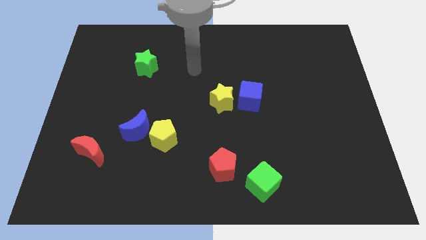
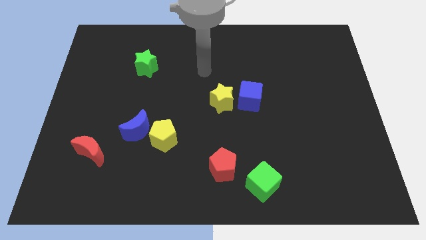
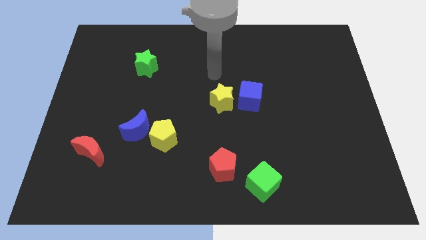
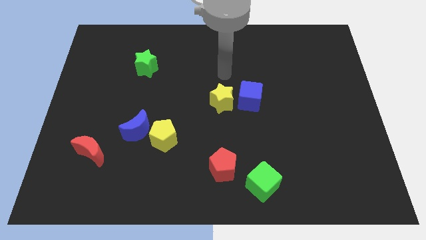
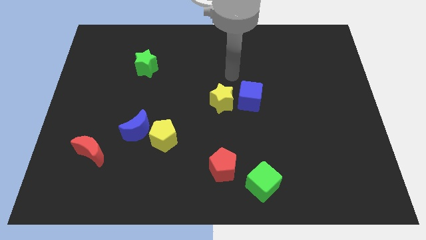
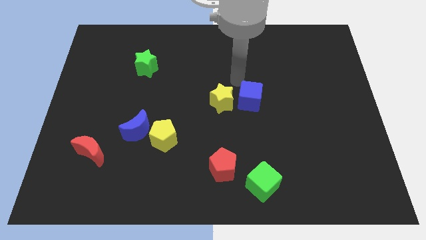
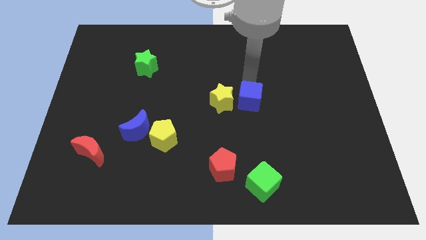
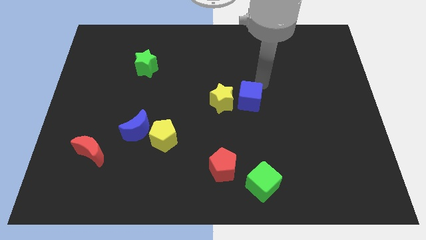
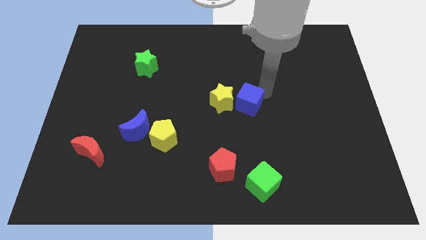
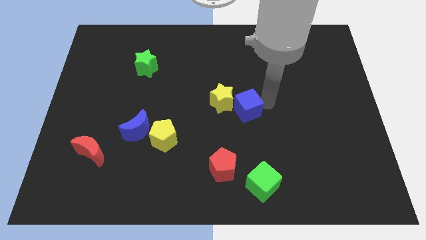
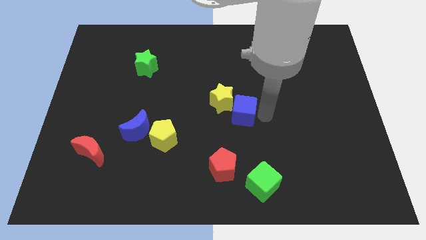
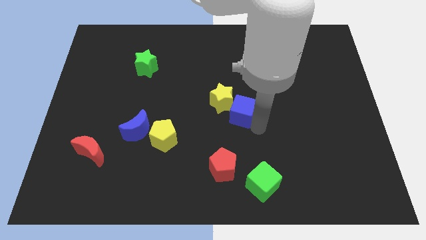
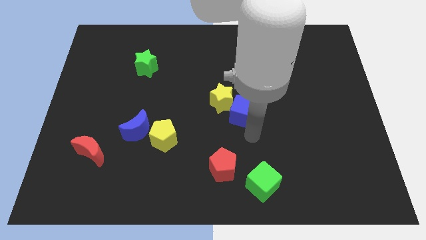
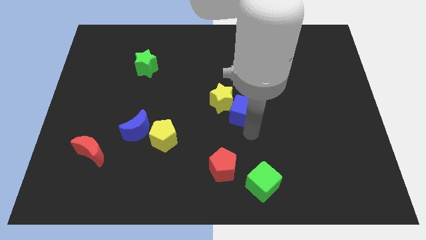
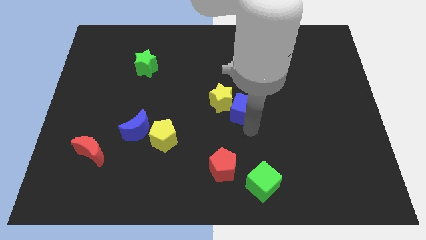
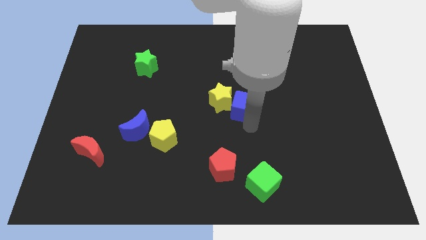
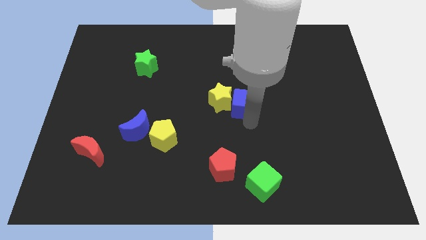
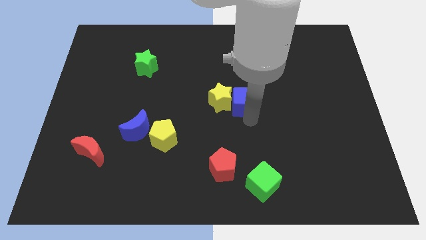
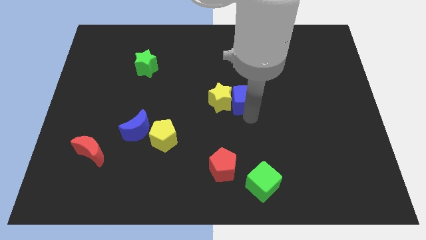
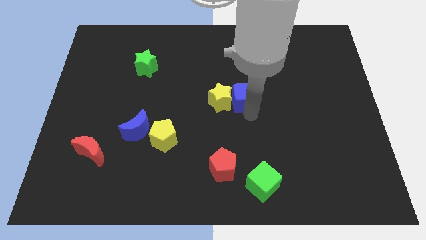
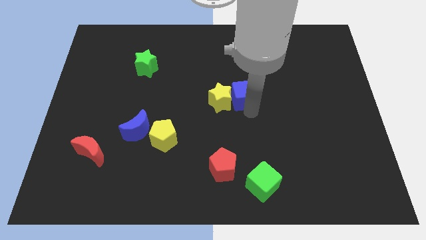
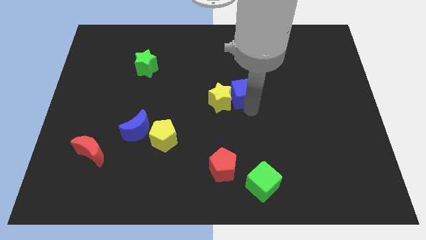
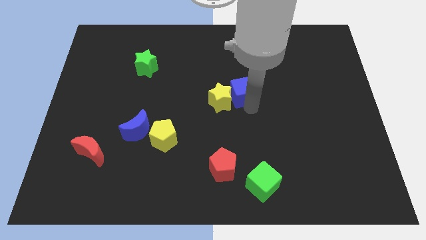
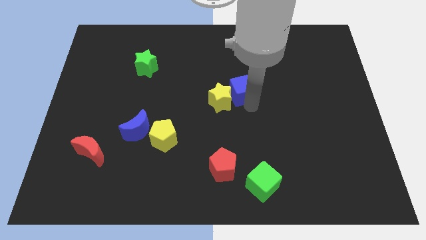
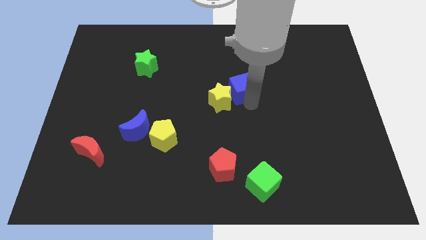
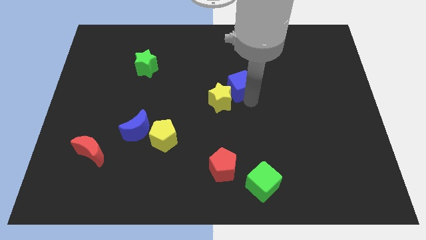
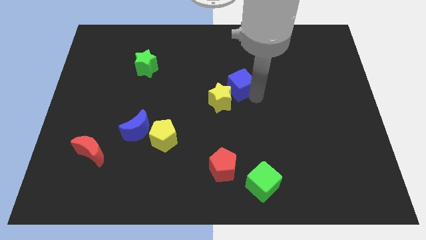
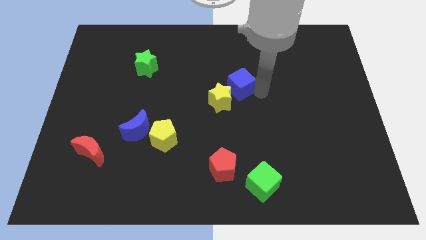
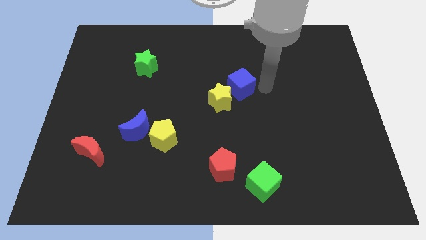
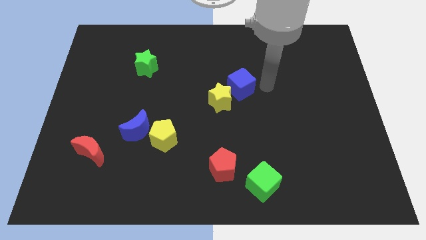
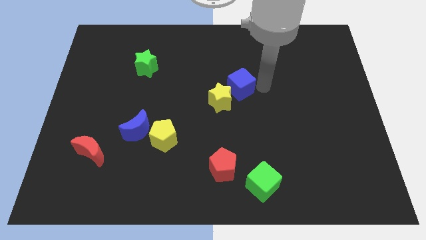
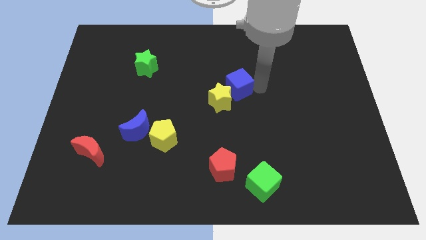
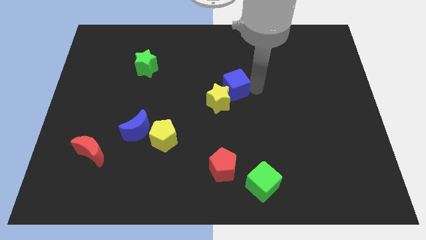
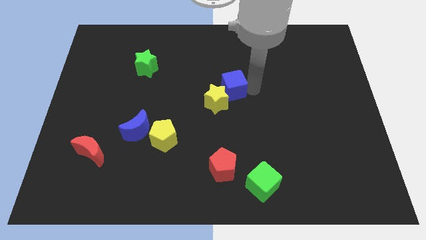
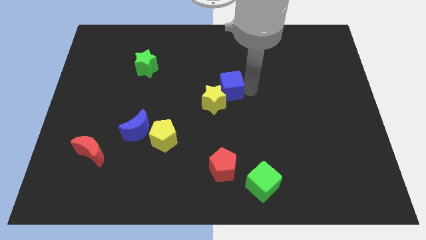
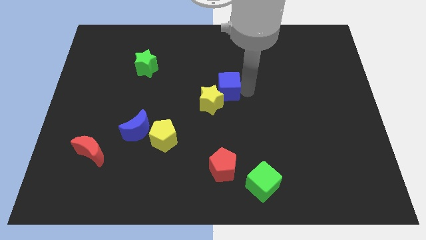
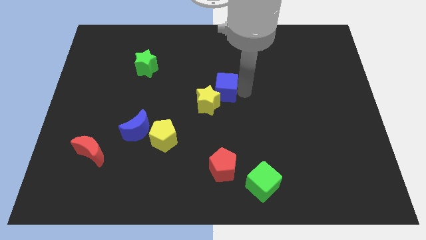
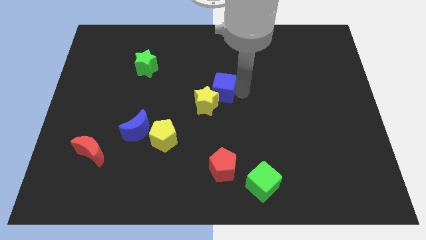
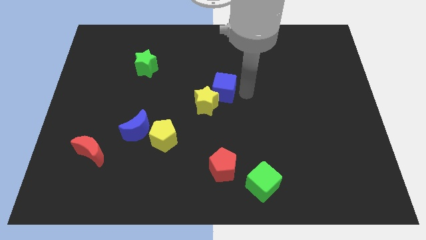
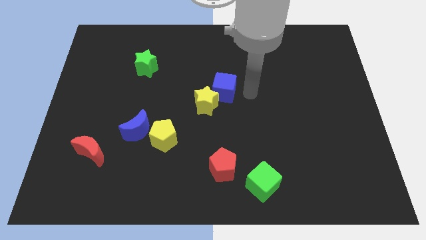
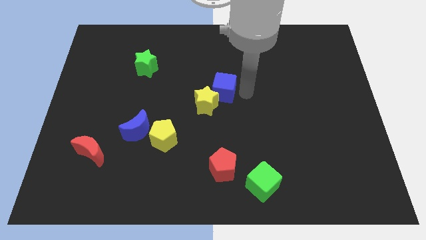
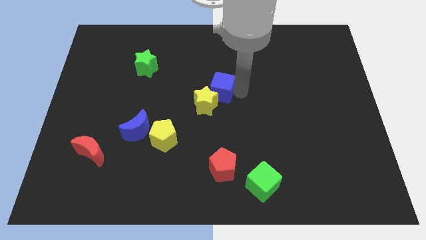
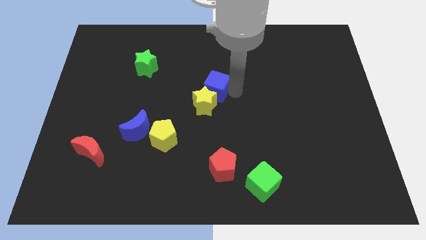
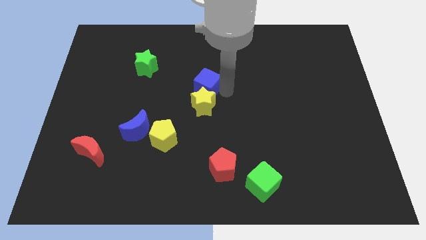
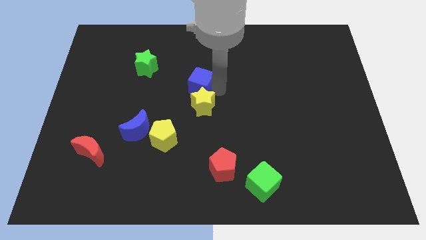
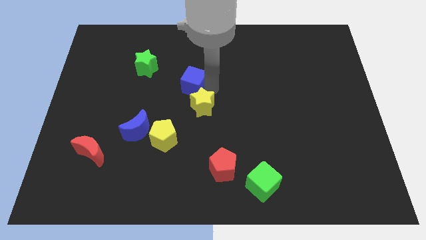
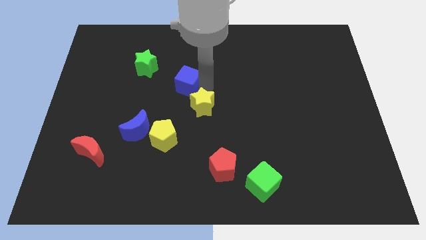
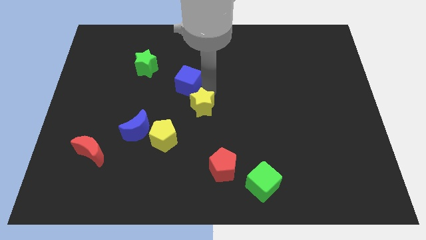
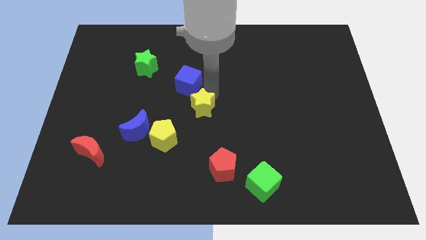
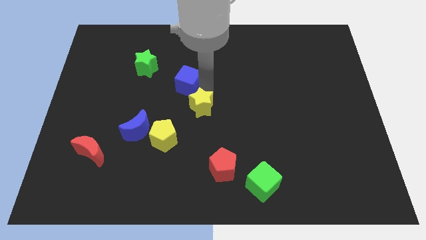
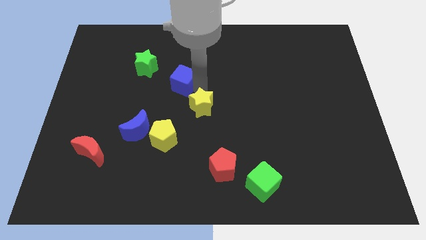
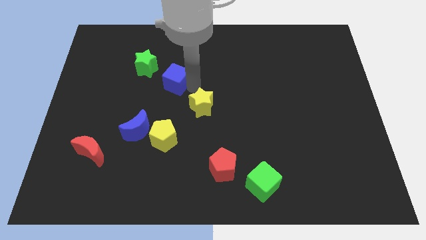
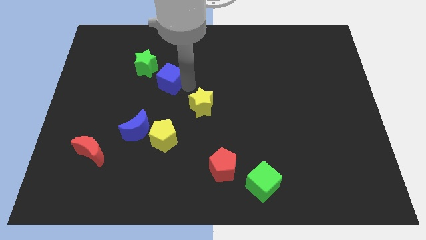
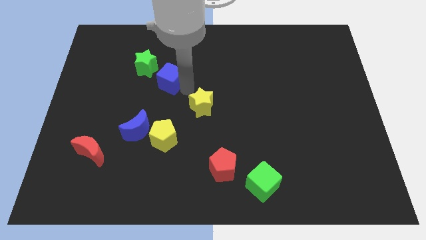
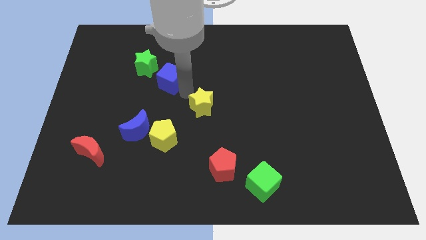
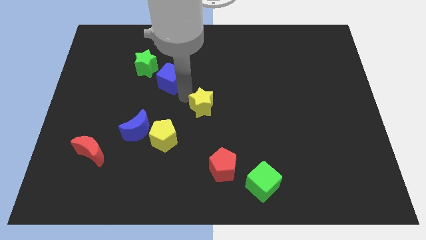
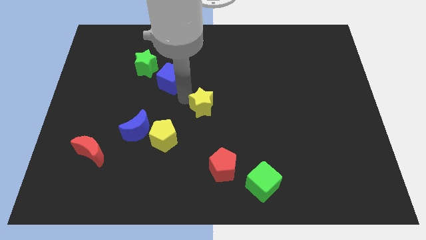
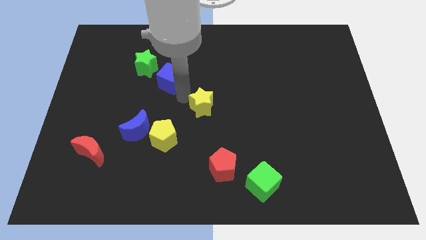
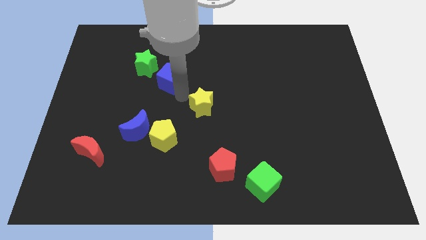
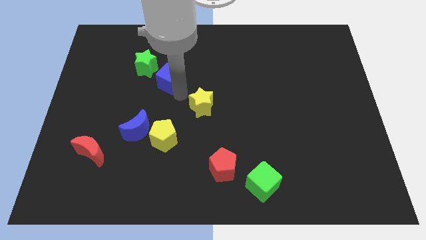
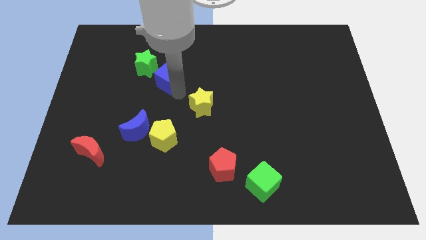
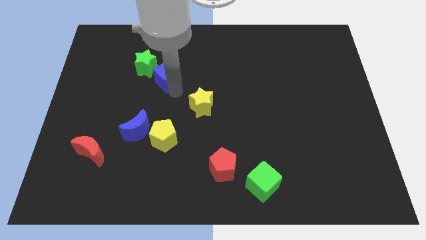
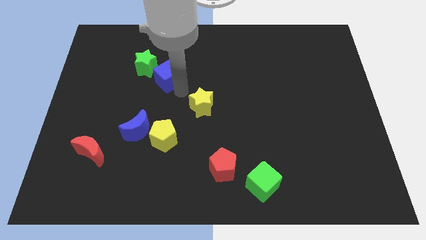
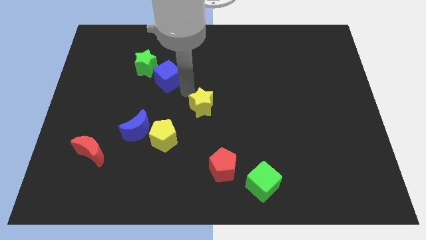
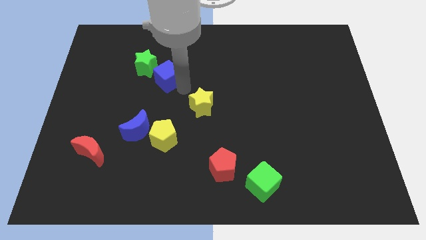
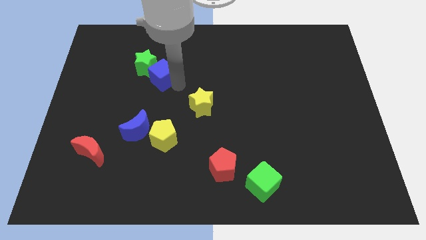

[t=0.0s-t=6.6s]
slide the blue cube close to the green star

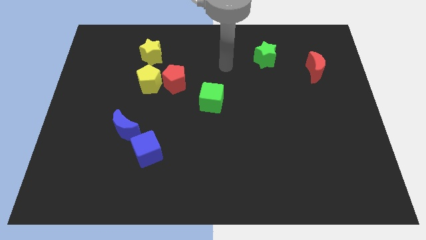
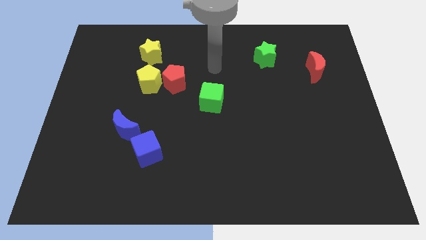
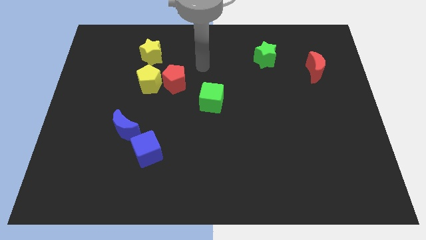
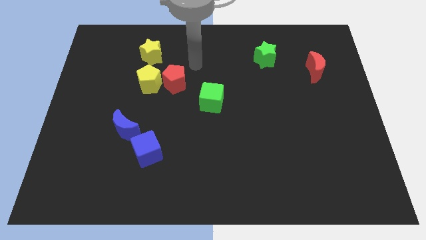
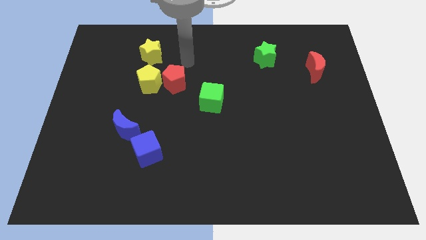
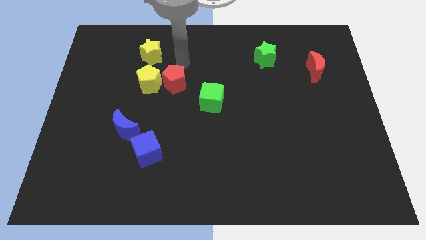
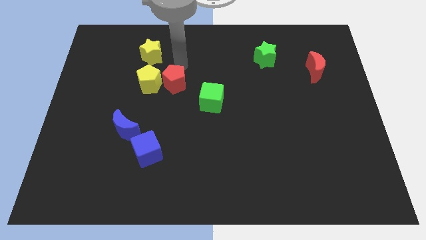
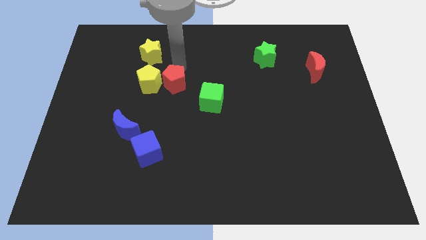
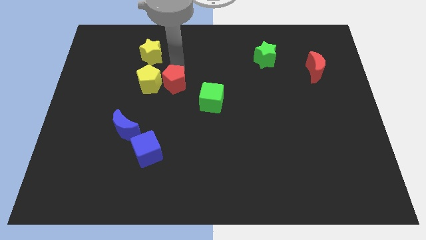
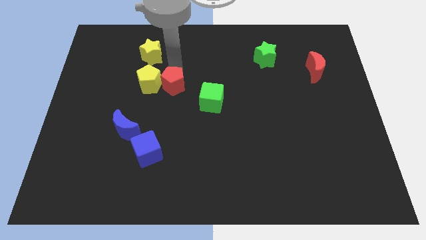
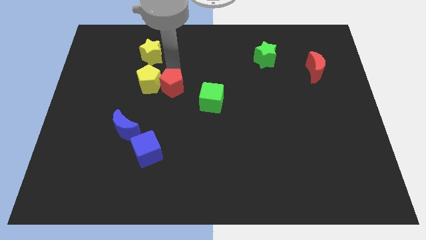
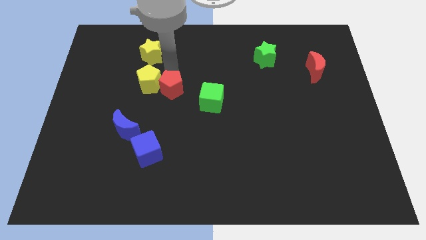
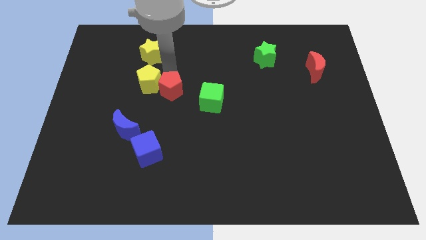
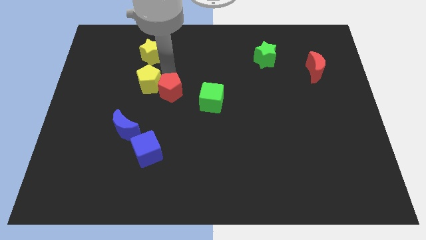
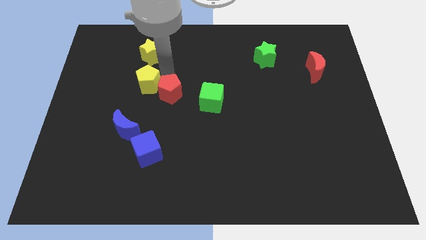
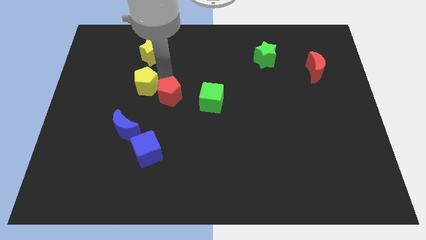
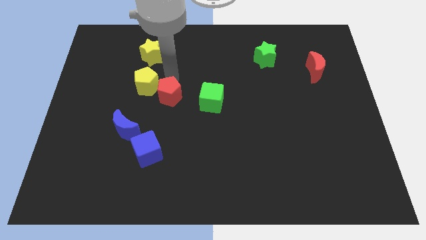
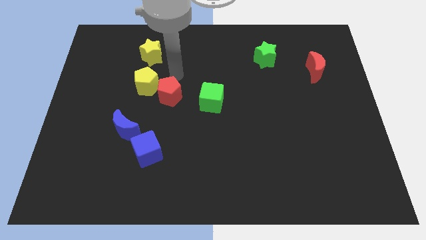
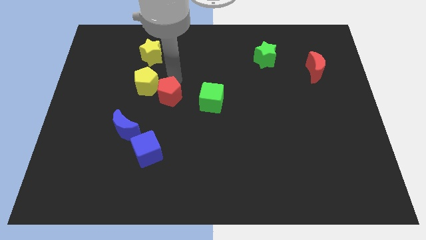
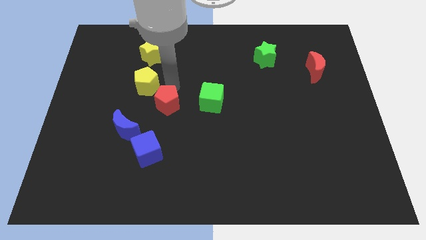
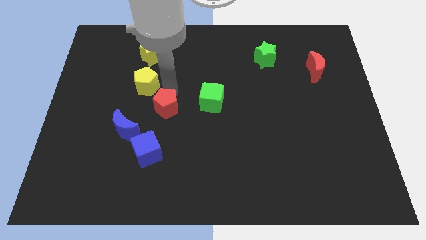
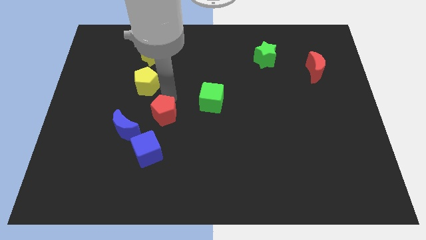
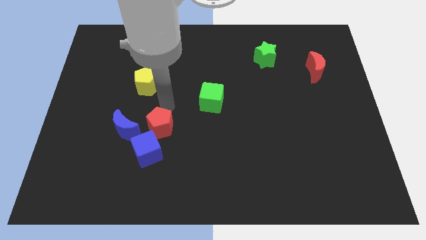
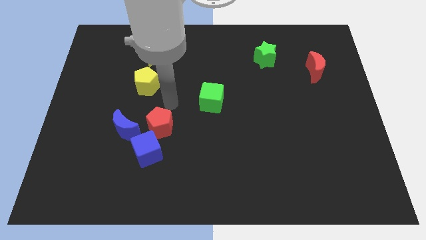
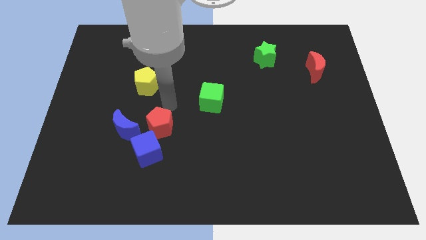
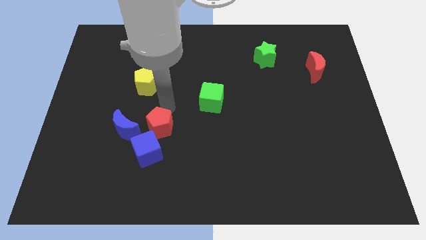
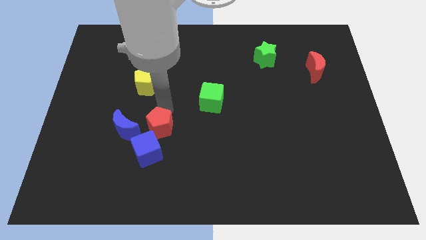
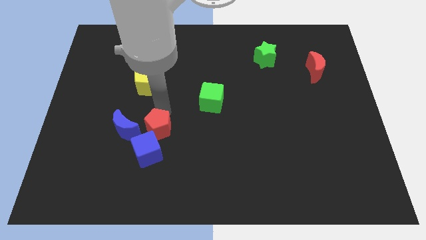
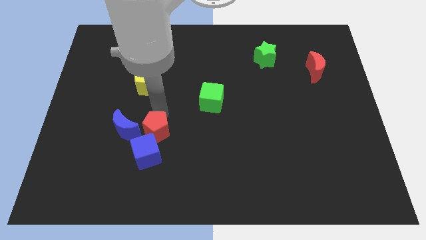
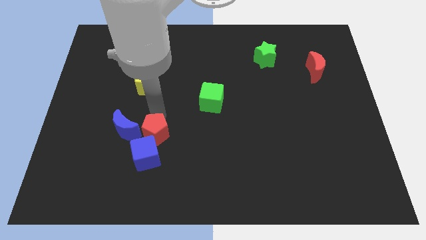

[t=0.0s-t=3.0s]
put the red pentagon towards the blue cube
